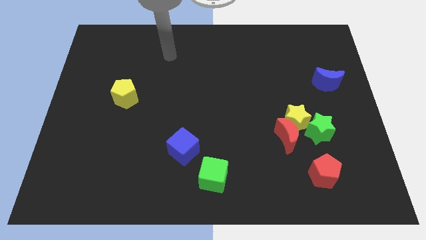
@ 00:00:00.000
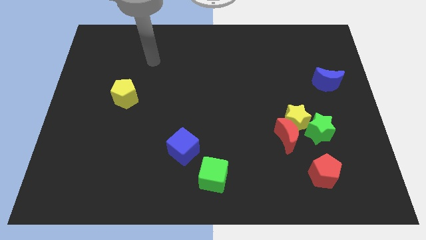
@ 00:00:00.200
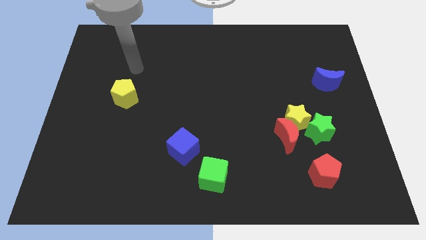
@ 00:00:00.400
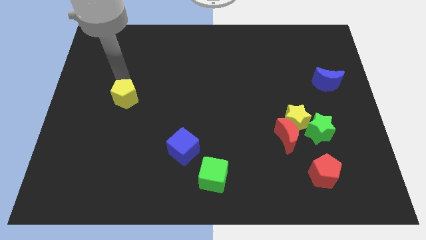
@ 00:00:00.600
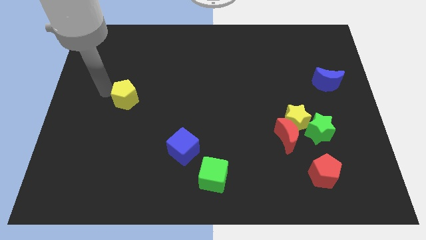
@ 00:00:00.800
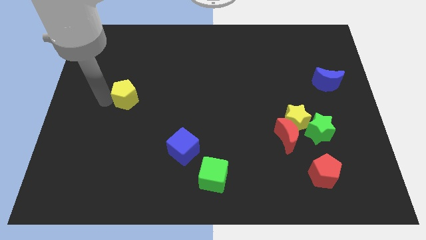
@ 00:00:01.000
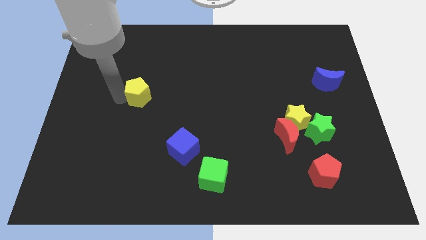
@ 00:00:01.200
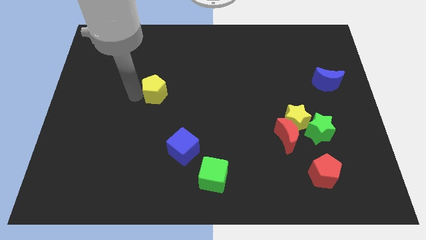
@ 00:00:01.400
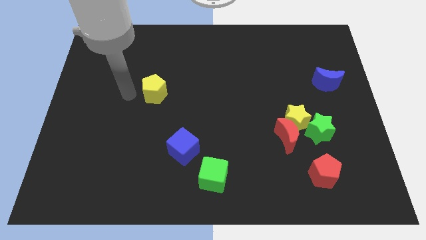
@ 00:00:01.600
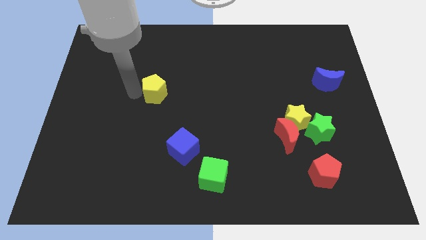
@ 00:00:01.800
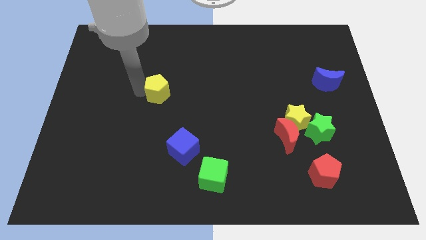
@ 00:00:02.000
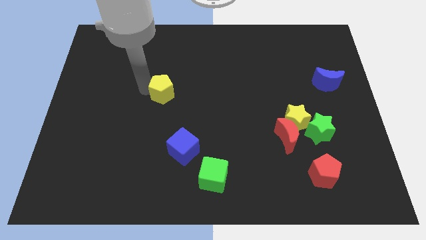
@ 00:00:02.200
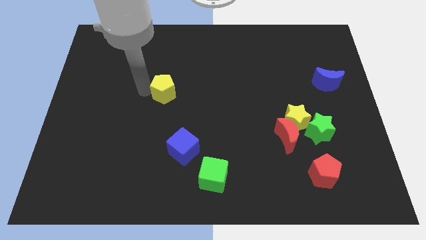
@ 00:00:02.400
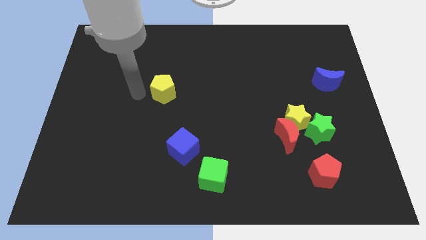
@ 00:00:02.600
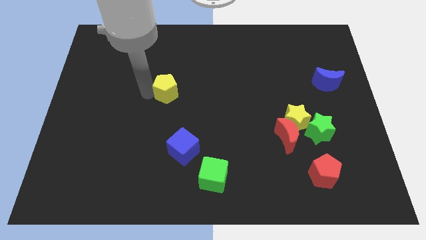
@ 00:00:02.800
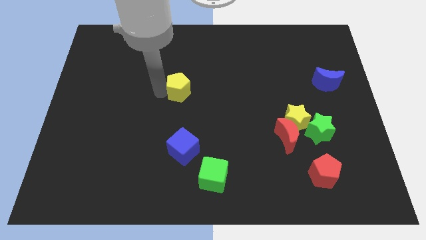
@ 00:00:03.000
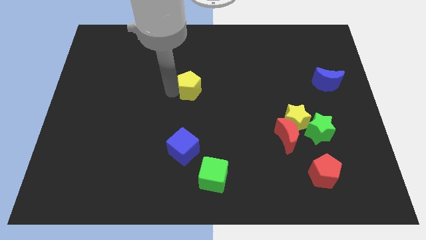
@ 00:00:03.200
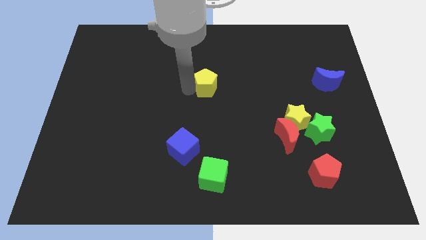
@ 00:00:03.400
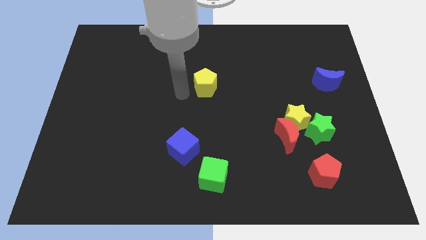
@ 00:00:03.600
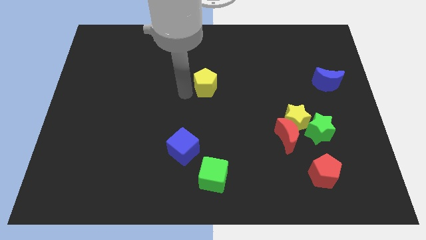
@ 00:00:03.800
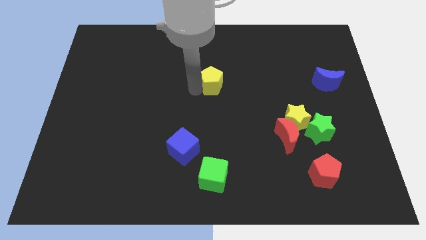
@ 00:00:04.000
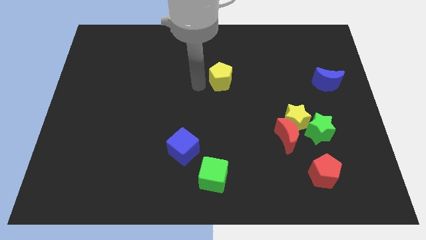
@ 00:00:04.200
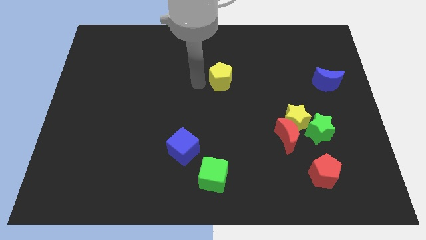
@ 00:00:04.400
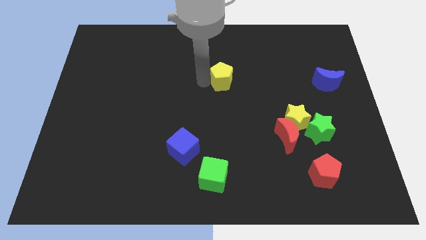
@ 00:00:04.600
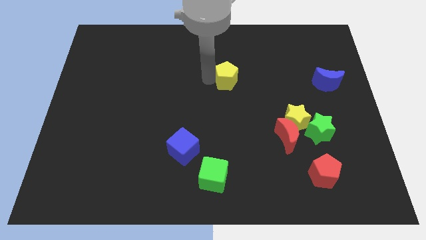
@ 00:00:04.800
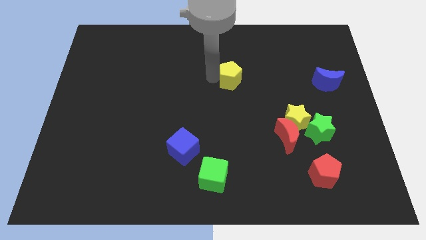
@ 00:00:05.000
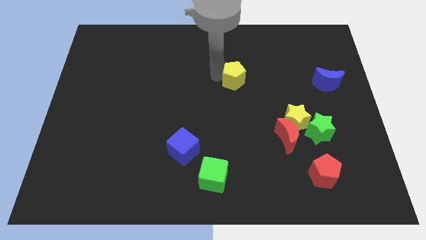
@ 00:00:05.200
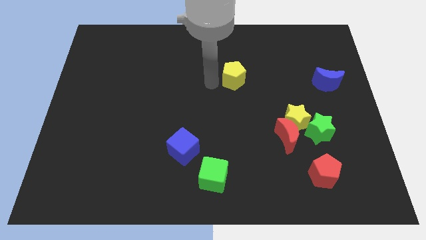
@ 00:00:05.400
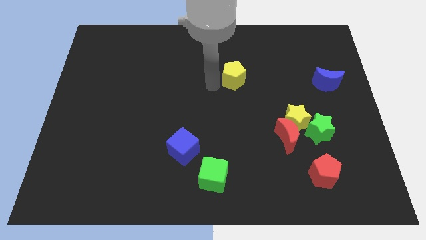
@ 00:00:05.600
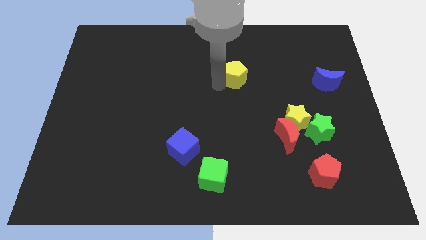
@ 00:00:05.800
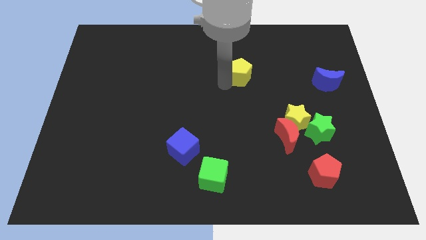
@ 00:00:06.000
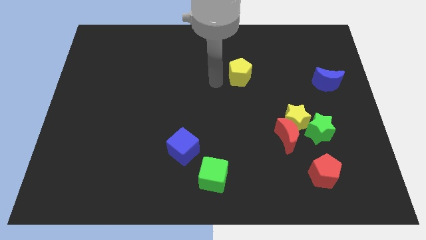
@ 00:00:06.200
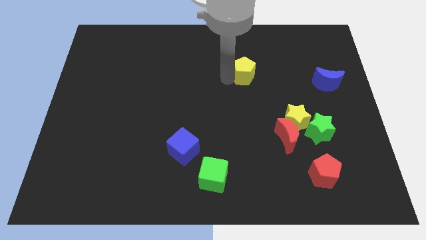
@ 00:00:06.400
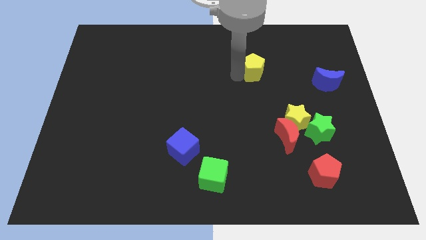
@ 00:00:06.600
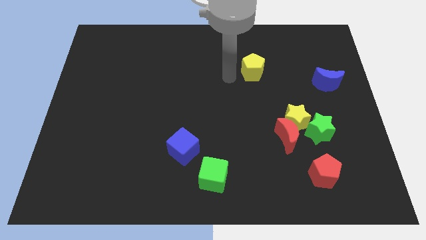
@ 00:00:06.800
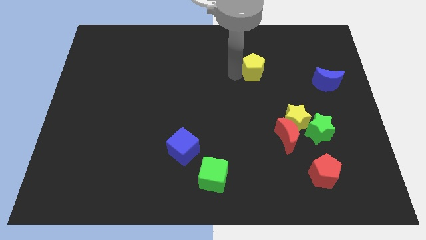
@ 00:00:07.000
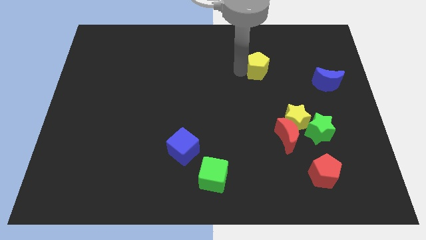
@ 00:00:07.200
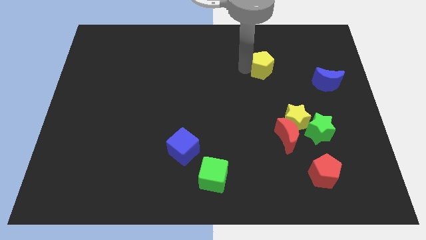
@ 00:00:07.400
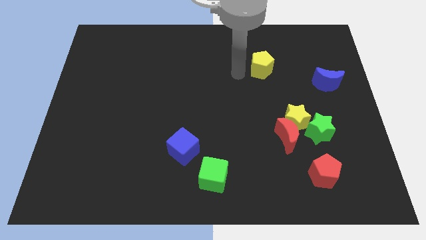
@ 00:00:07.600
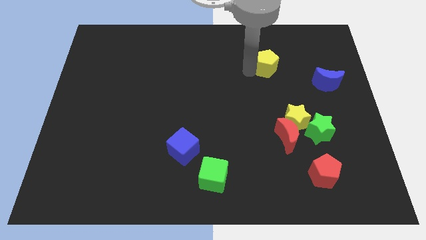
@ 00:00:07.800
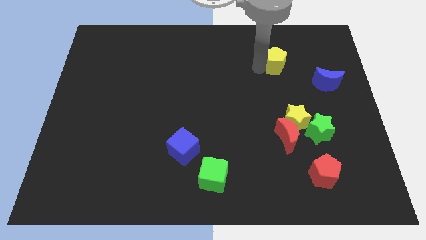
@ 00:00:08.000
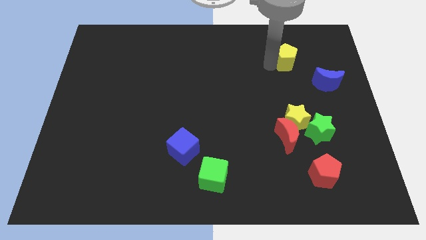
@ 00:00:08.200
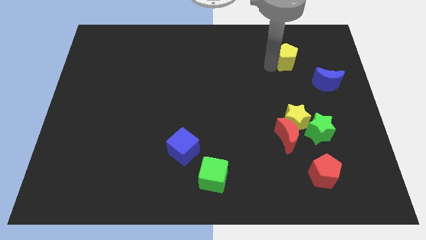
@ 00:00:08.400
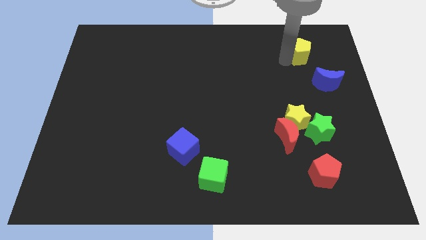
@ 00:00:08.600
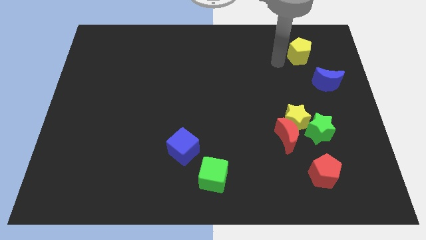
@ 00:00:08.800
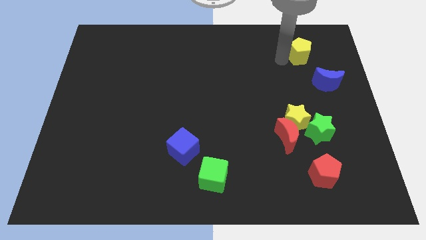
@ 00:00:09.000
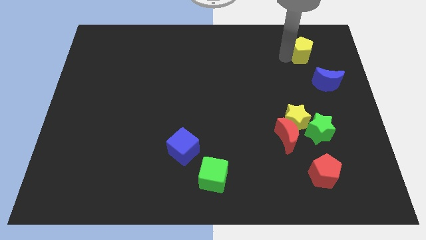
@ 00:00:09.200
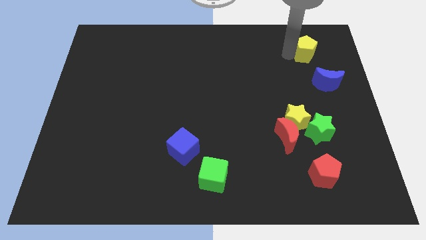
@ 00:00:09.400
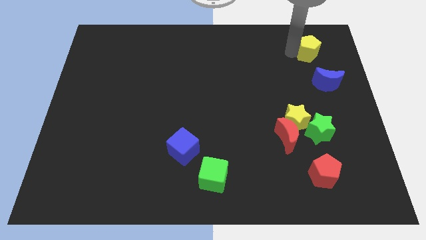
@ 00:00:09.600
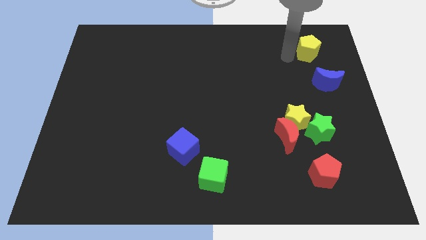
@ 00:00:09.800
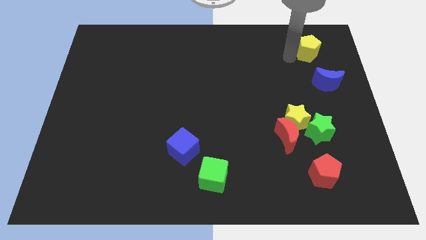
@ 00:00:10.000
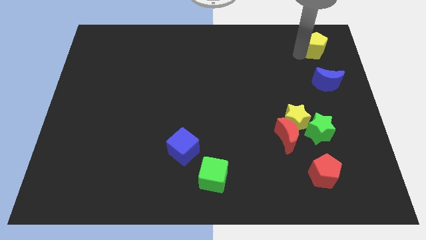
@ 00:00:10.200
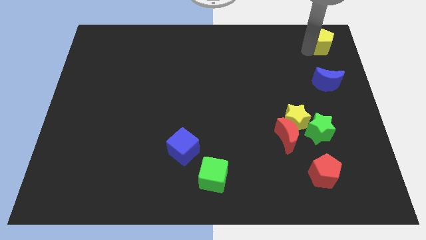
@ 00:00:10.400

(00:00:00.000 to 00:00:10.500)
slide the yellow pentagon to the top right corner

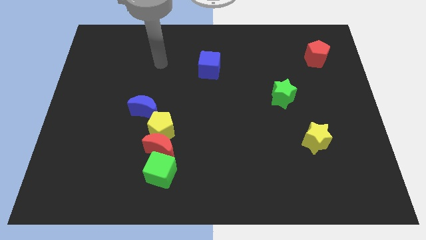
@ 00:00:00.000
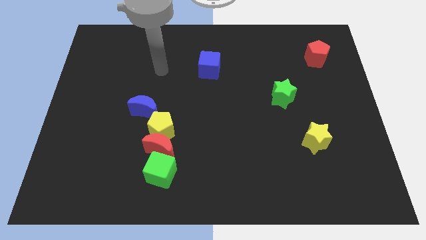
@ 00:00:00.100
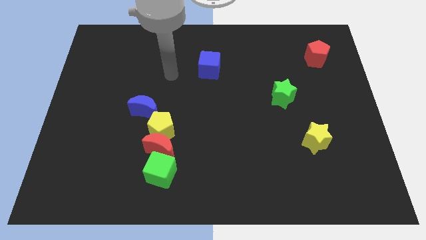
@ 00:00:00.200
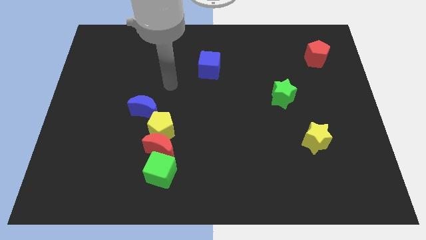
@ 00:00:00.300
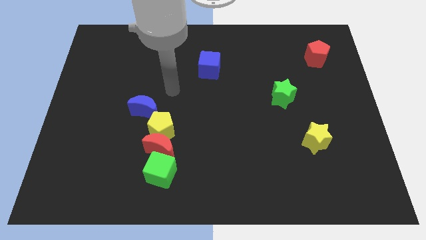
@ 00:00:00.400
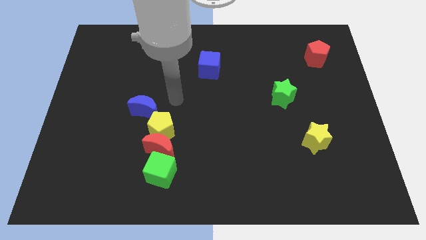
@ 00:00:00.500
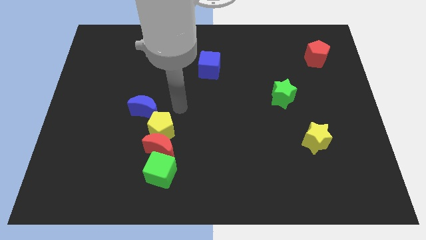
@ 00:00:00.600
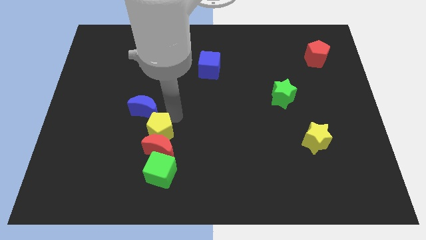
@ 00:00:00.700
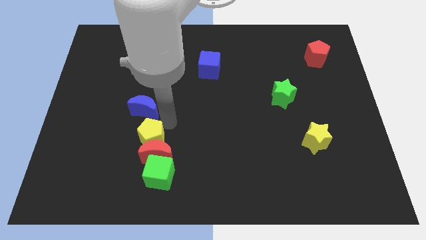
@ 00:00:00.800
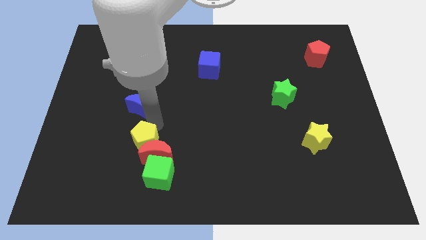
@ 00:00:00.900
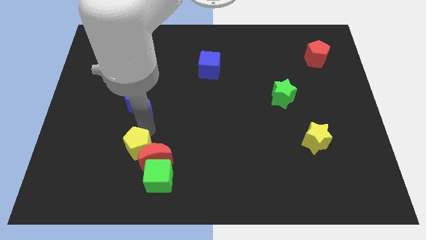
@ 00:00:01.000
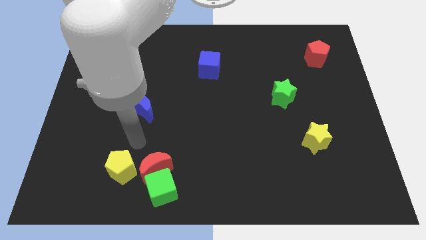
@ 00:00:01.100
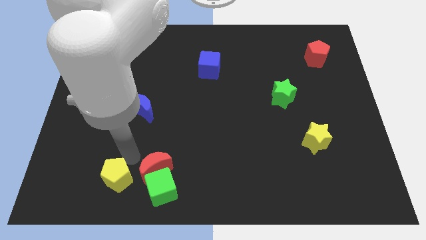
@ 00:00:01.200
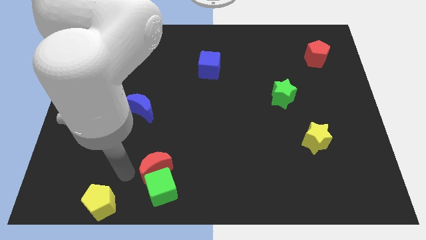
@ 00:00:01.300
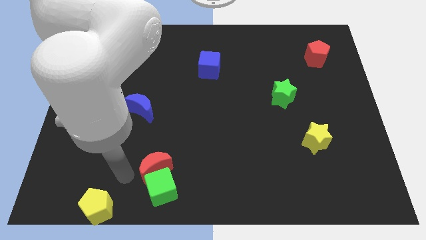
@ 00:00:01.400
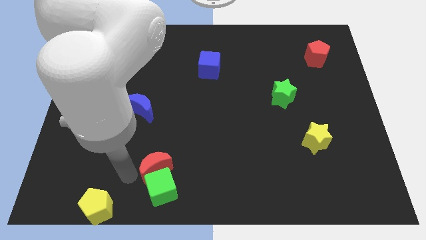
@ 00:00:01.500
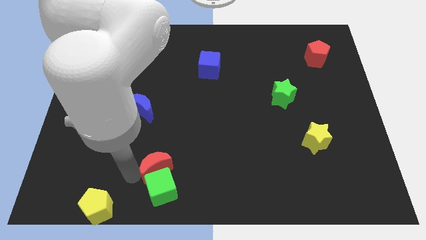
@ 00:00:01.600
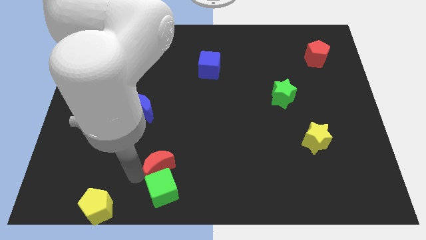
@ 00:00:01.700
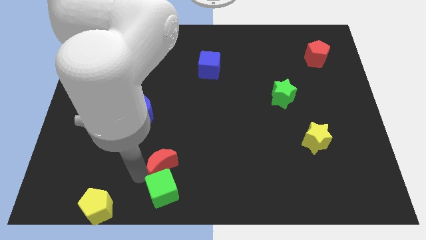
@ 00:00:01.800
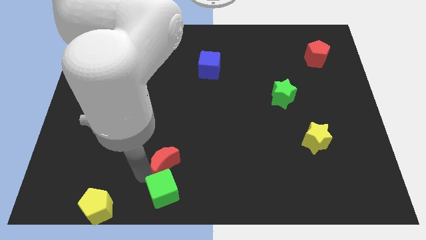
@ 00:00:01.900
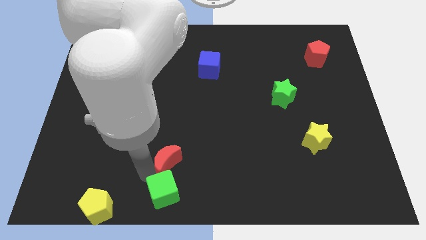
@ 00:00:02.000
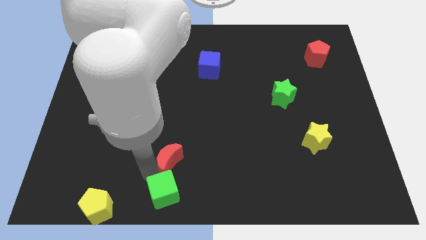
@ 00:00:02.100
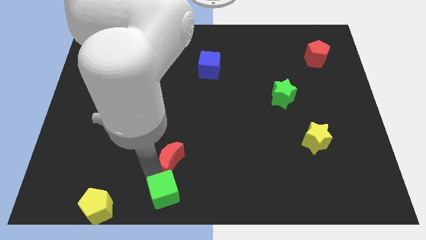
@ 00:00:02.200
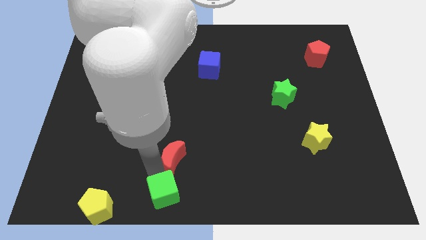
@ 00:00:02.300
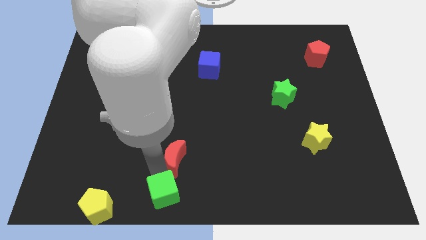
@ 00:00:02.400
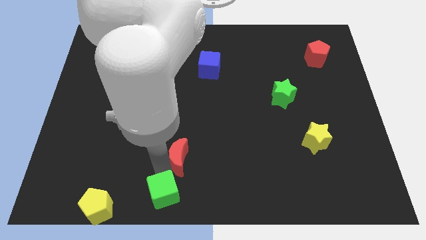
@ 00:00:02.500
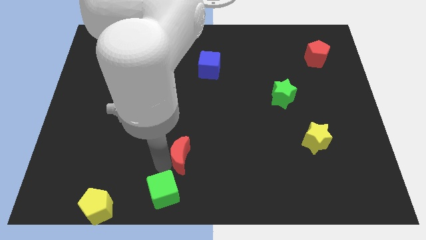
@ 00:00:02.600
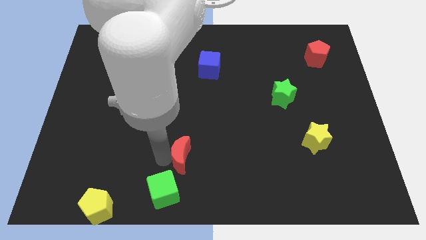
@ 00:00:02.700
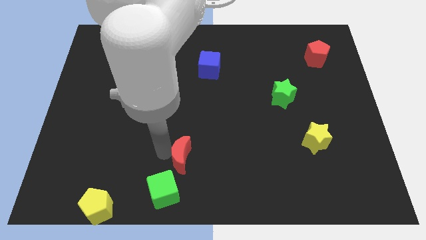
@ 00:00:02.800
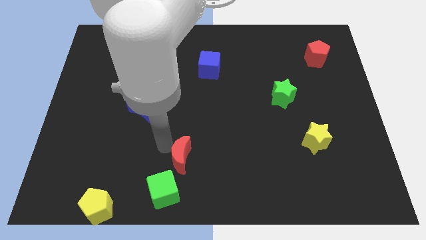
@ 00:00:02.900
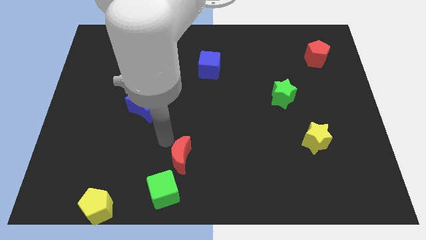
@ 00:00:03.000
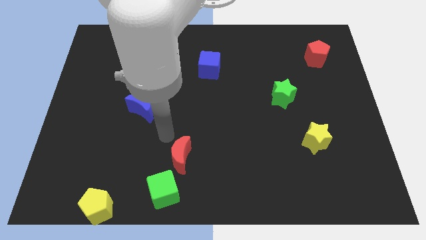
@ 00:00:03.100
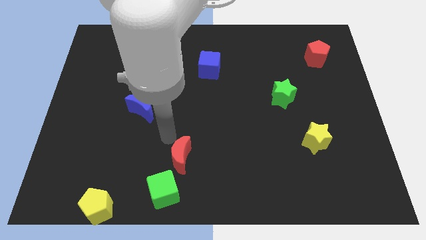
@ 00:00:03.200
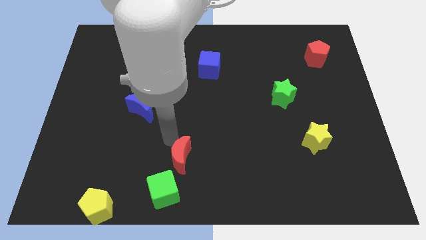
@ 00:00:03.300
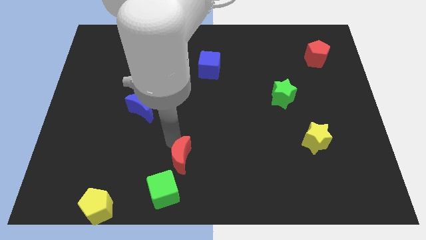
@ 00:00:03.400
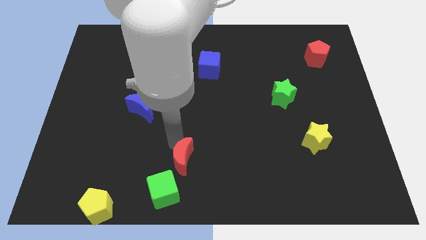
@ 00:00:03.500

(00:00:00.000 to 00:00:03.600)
move the red moon to the bottom side
